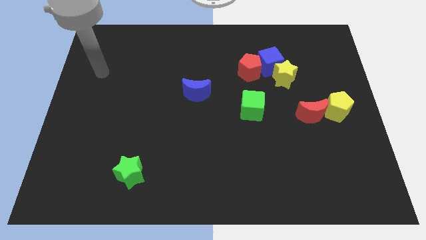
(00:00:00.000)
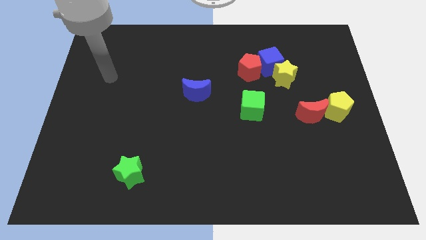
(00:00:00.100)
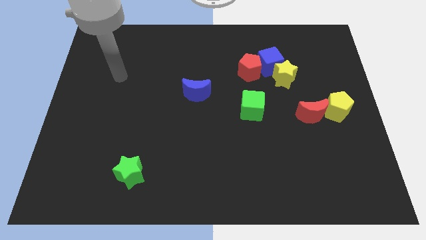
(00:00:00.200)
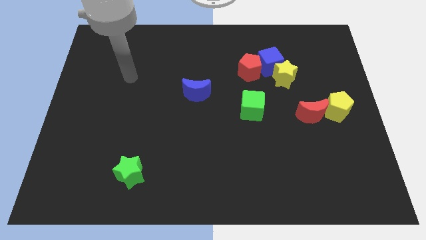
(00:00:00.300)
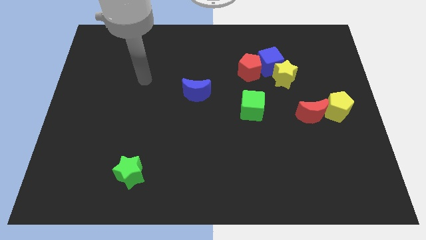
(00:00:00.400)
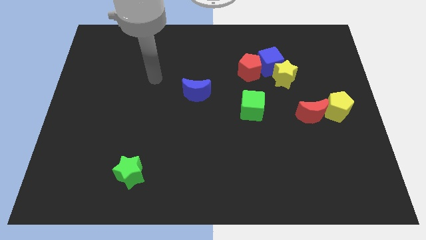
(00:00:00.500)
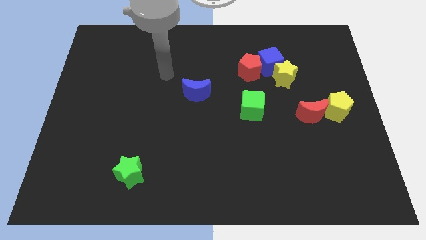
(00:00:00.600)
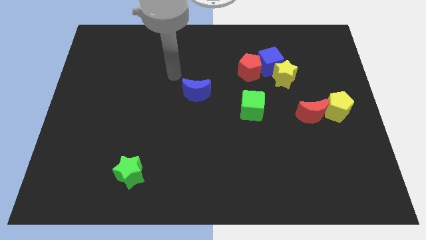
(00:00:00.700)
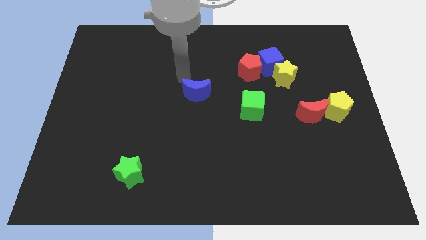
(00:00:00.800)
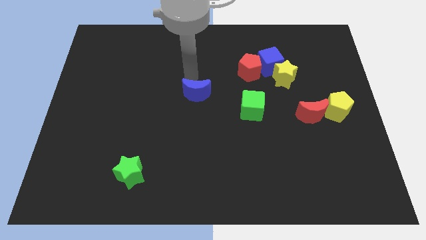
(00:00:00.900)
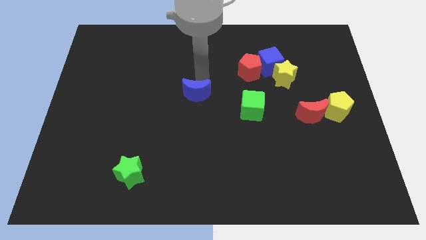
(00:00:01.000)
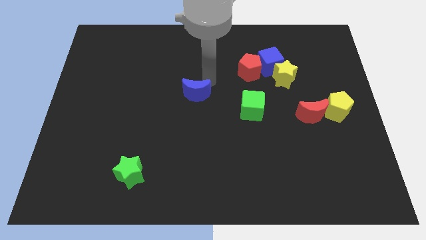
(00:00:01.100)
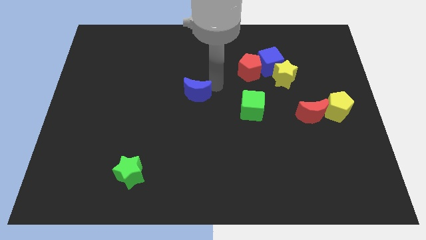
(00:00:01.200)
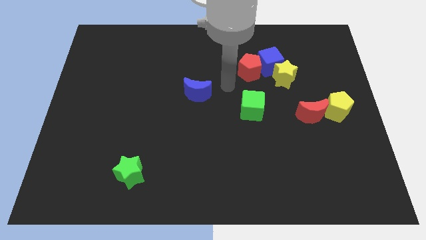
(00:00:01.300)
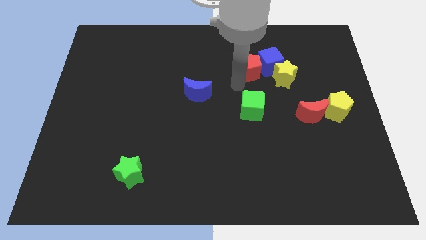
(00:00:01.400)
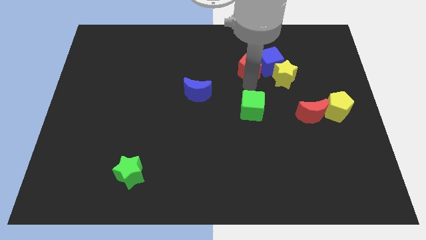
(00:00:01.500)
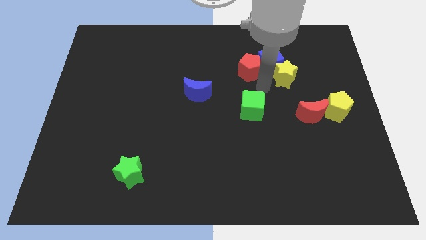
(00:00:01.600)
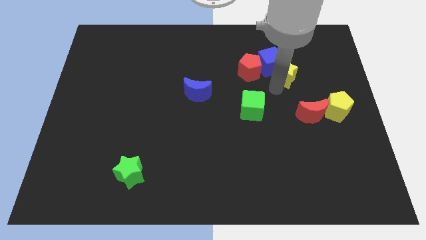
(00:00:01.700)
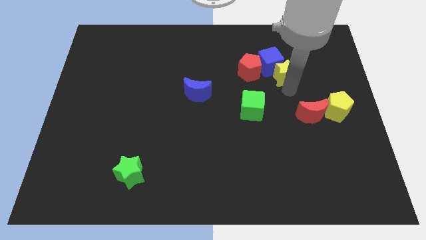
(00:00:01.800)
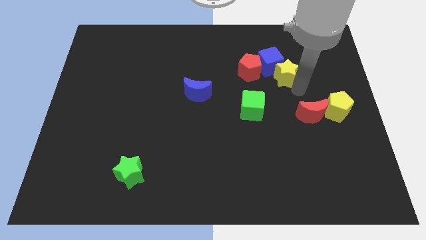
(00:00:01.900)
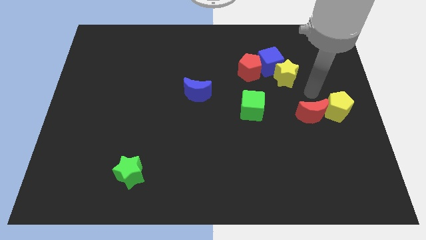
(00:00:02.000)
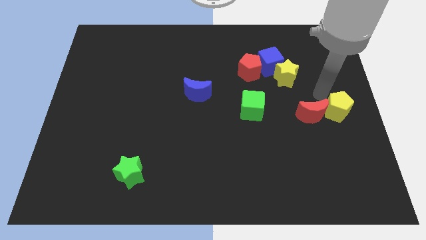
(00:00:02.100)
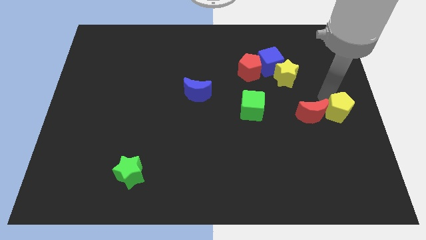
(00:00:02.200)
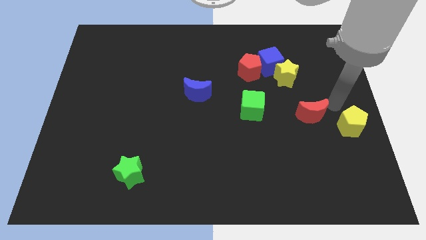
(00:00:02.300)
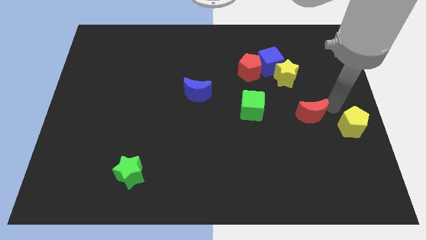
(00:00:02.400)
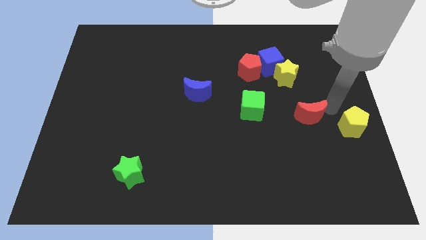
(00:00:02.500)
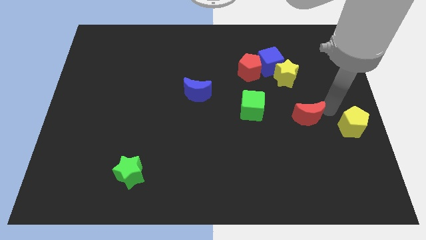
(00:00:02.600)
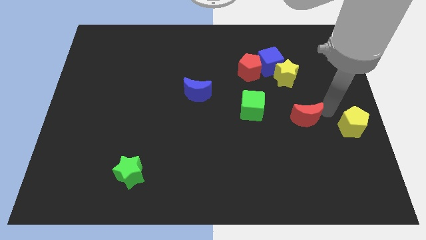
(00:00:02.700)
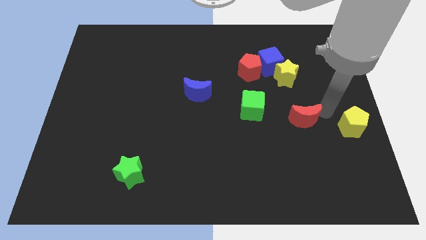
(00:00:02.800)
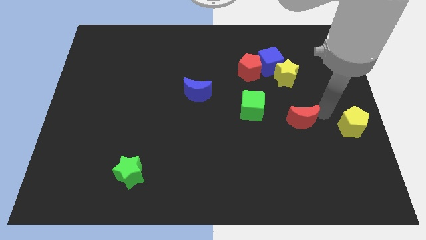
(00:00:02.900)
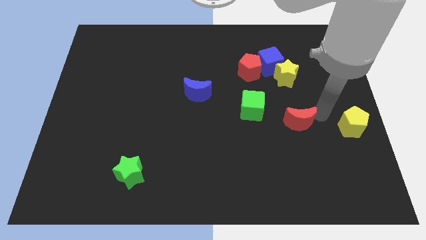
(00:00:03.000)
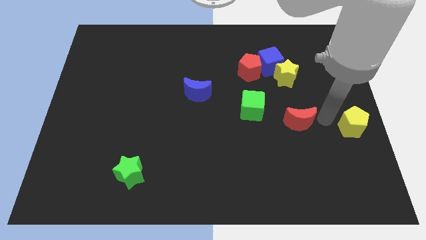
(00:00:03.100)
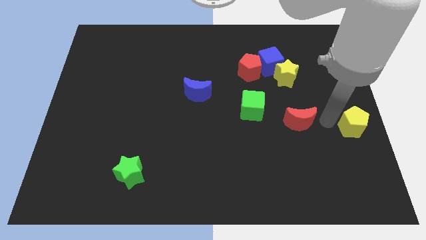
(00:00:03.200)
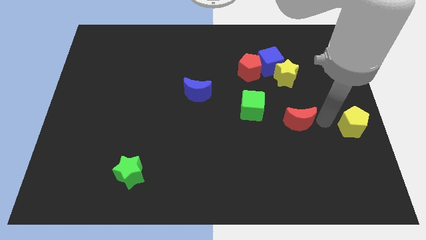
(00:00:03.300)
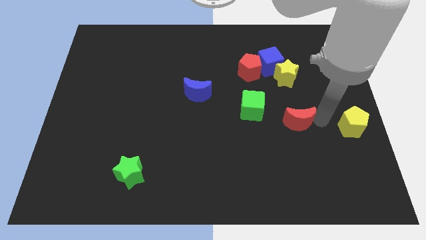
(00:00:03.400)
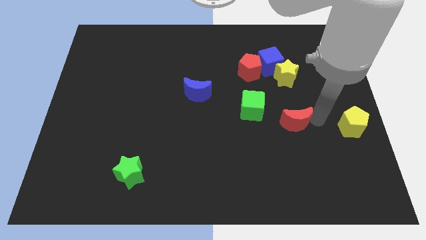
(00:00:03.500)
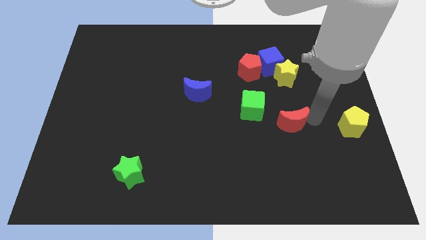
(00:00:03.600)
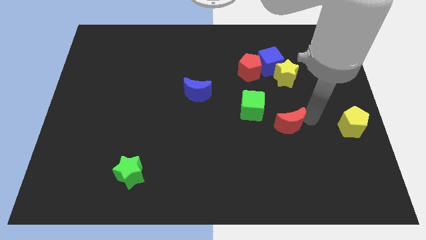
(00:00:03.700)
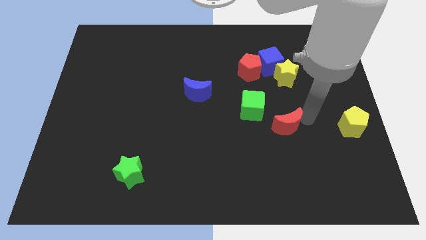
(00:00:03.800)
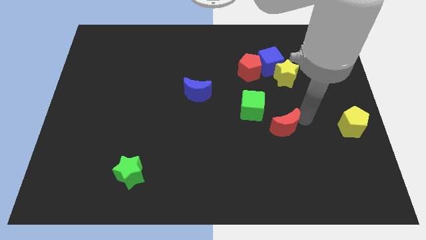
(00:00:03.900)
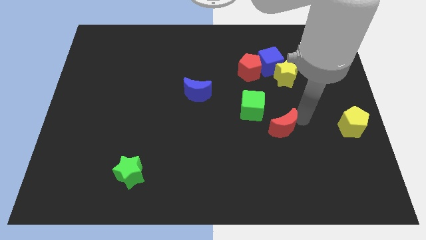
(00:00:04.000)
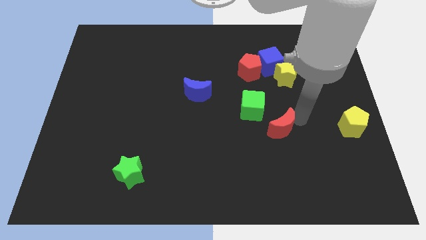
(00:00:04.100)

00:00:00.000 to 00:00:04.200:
move the red moon a little left

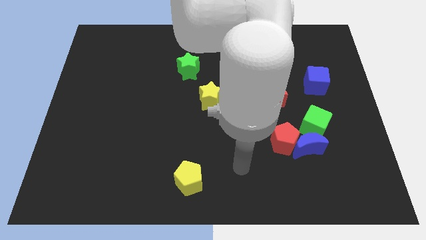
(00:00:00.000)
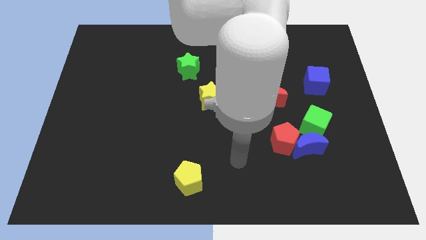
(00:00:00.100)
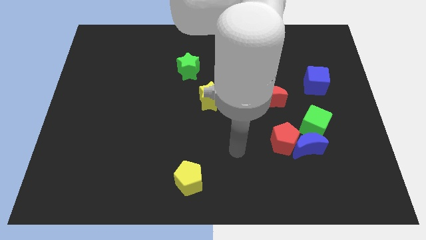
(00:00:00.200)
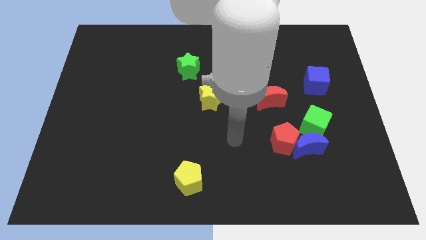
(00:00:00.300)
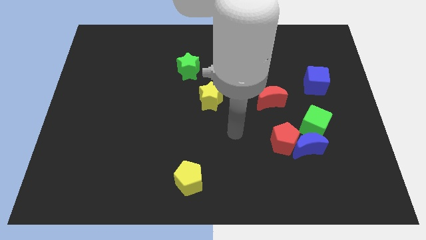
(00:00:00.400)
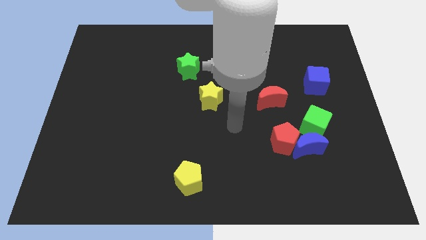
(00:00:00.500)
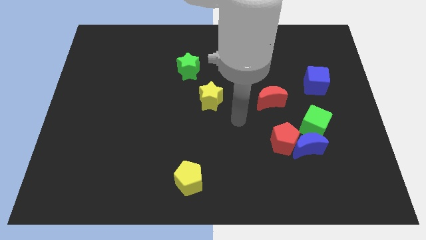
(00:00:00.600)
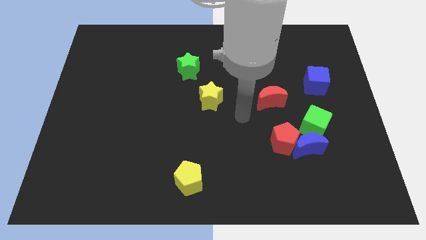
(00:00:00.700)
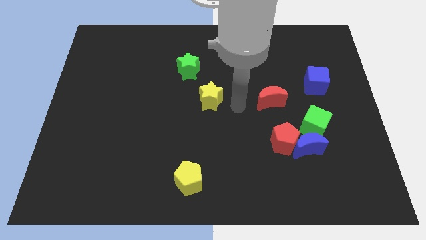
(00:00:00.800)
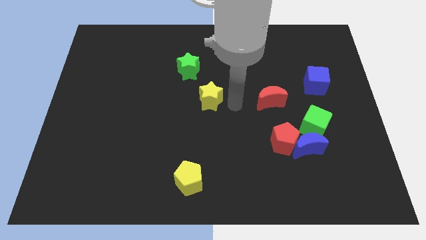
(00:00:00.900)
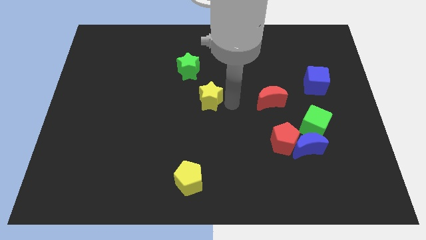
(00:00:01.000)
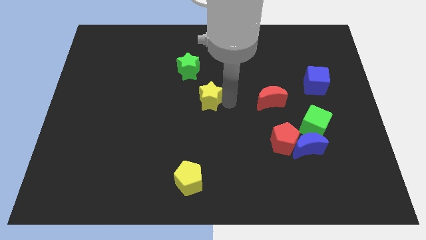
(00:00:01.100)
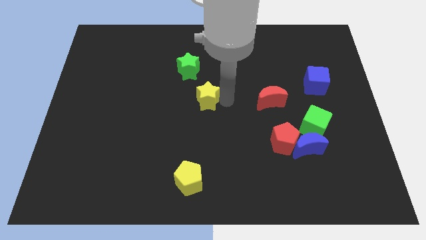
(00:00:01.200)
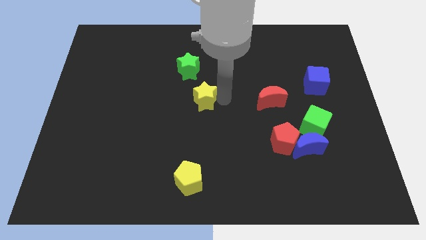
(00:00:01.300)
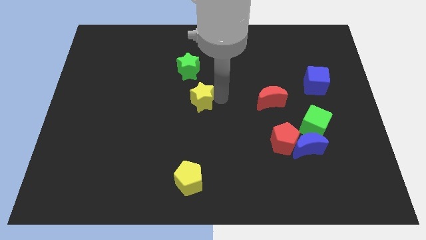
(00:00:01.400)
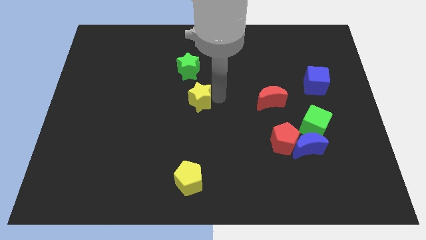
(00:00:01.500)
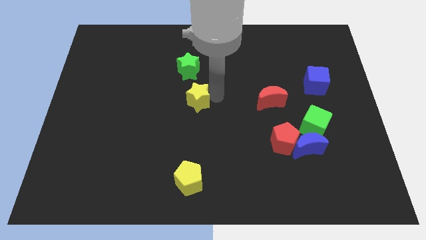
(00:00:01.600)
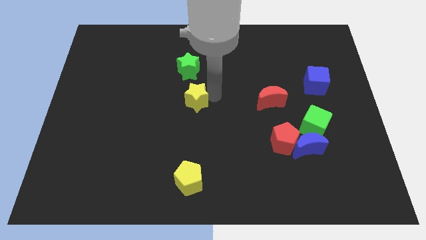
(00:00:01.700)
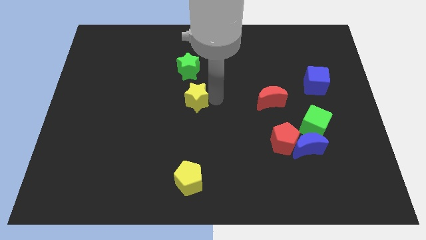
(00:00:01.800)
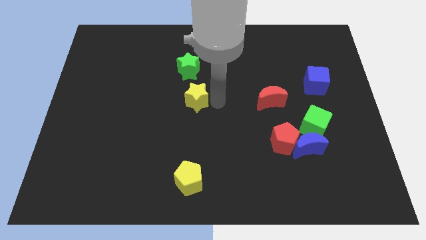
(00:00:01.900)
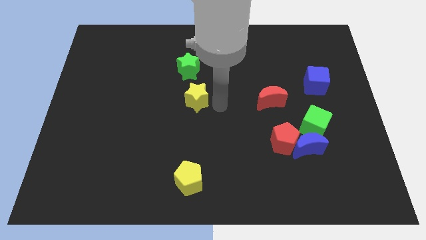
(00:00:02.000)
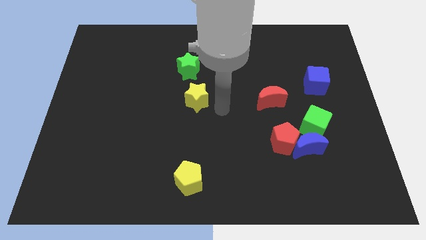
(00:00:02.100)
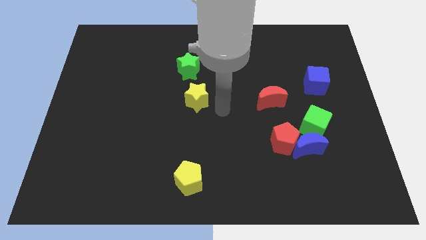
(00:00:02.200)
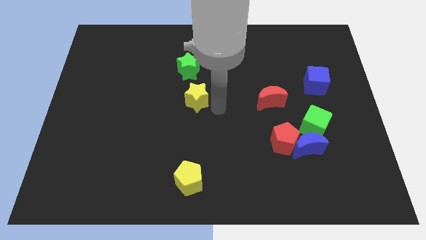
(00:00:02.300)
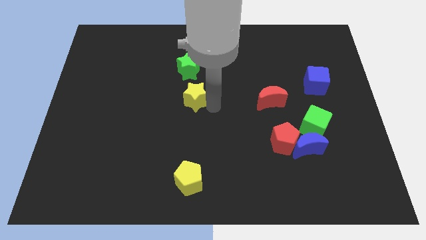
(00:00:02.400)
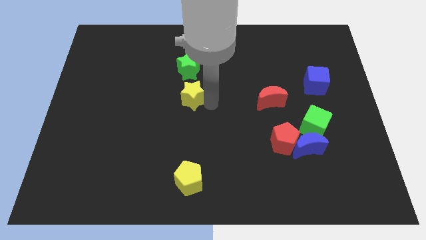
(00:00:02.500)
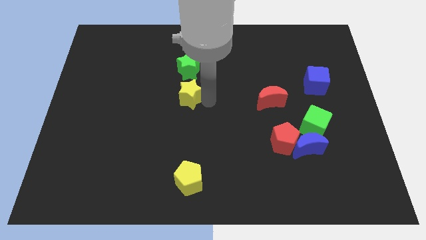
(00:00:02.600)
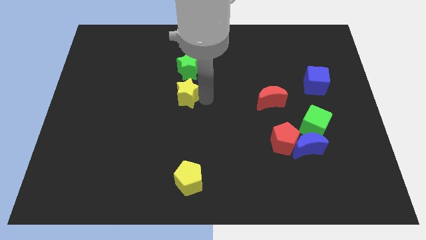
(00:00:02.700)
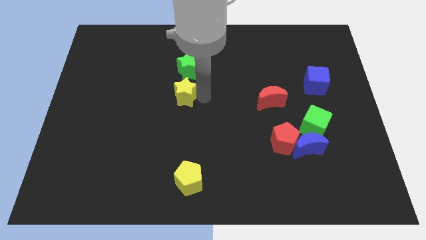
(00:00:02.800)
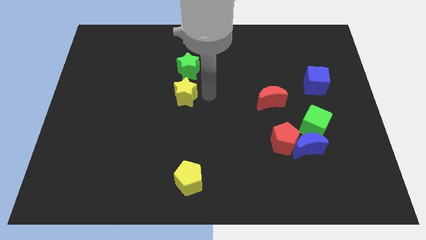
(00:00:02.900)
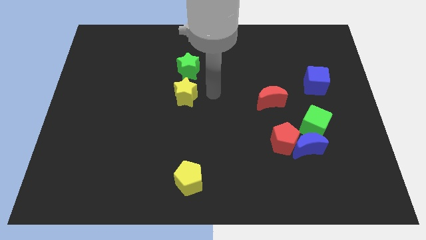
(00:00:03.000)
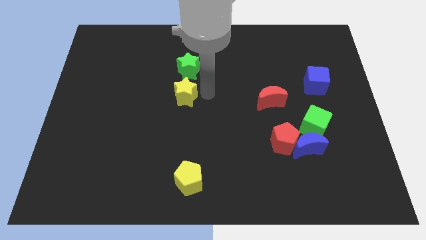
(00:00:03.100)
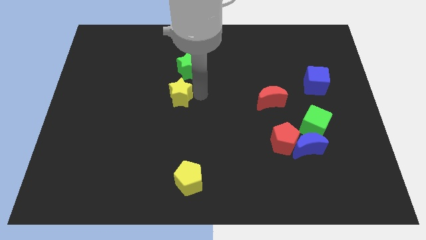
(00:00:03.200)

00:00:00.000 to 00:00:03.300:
move the yellow star to the left somewhat
